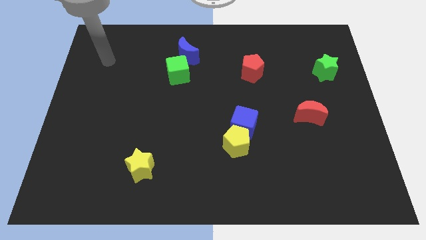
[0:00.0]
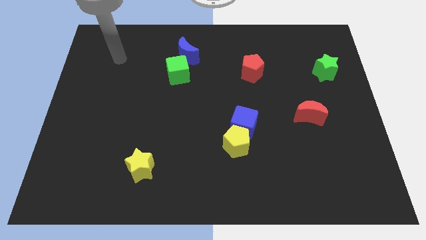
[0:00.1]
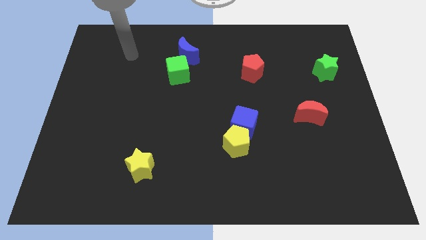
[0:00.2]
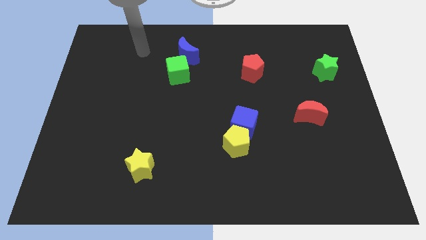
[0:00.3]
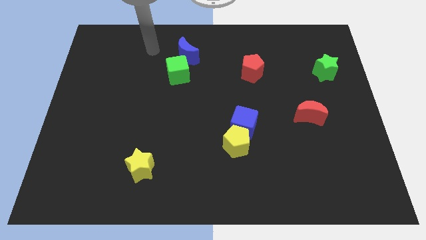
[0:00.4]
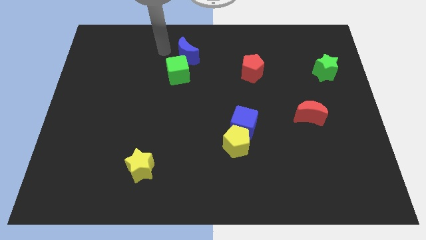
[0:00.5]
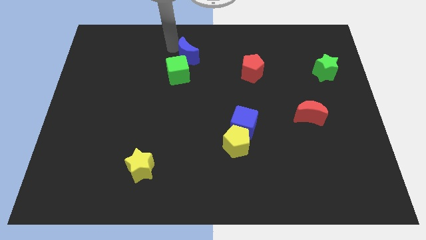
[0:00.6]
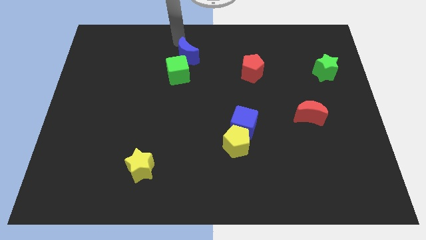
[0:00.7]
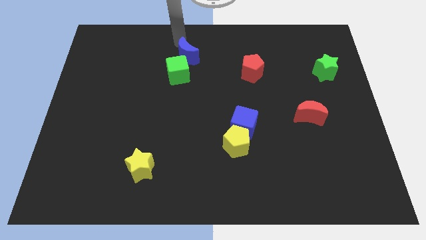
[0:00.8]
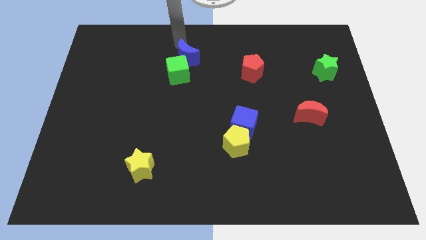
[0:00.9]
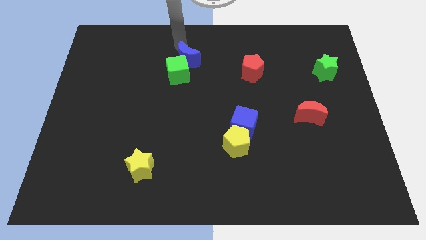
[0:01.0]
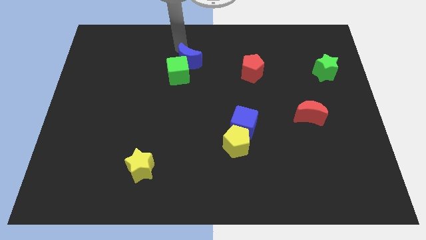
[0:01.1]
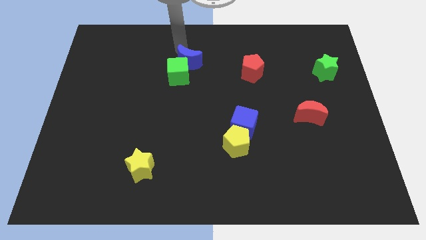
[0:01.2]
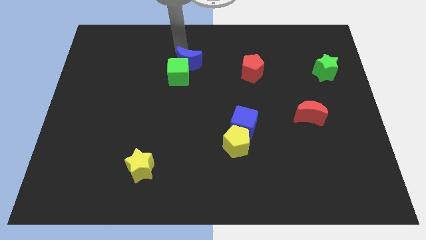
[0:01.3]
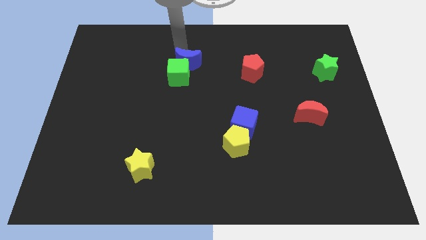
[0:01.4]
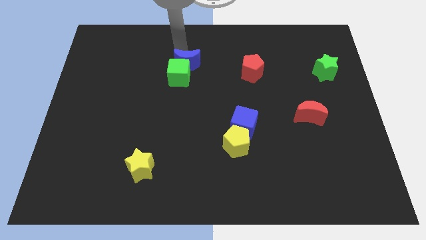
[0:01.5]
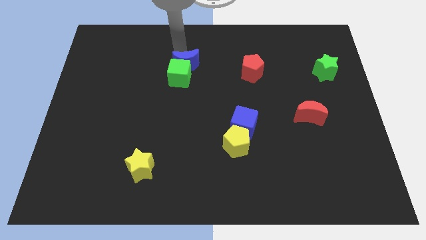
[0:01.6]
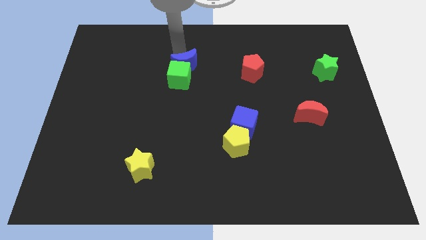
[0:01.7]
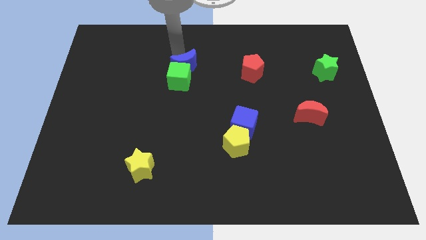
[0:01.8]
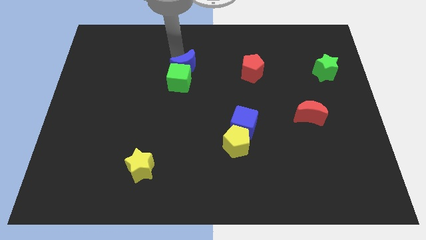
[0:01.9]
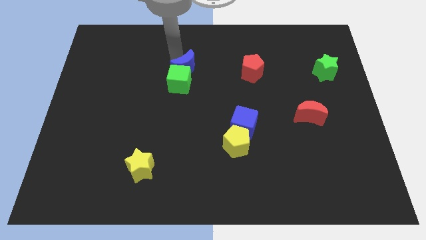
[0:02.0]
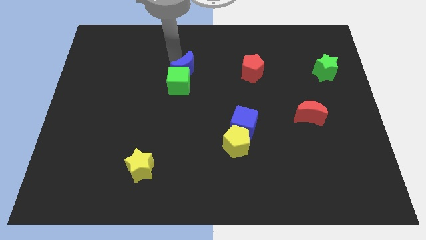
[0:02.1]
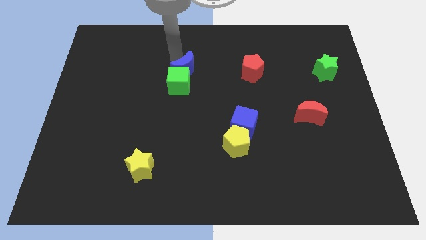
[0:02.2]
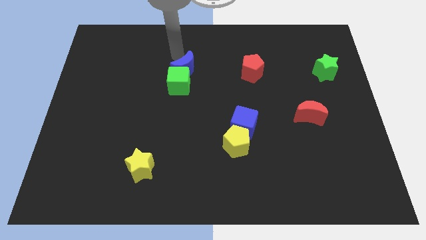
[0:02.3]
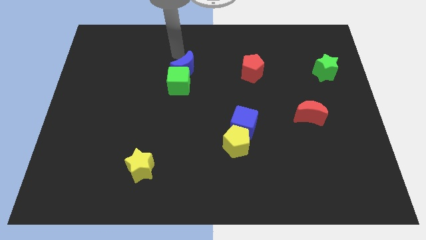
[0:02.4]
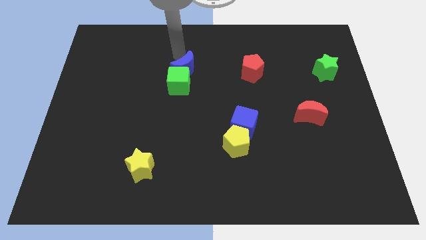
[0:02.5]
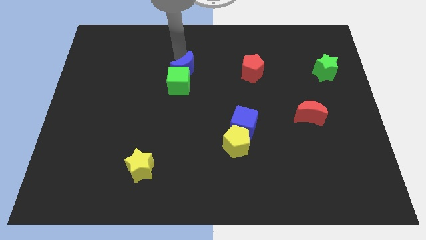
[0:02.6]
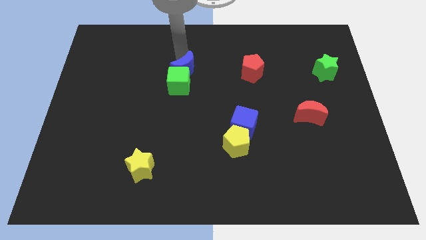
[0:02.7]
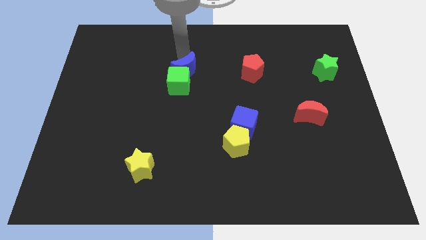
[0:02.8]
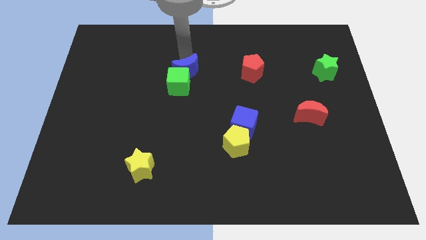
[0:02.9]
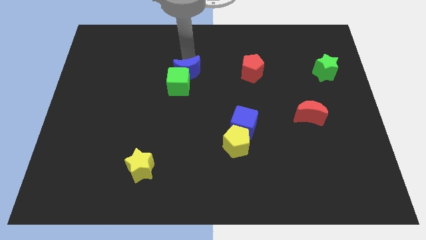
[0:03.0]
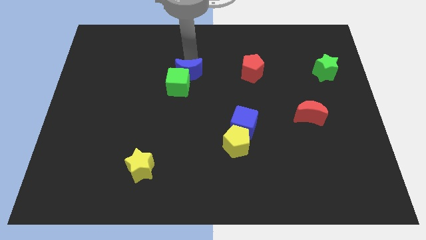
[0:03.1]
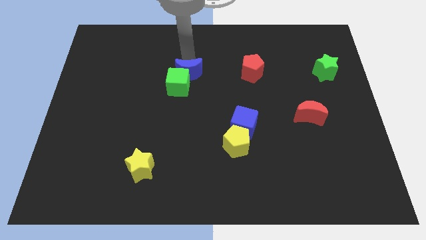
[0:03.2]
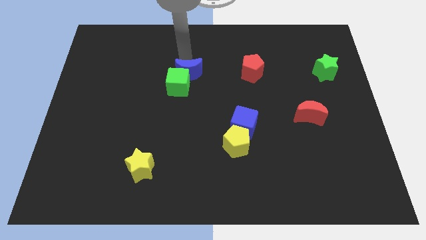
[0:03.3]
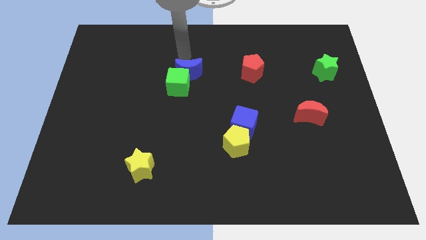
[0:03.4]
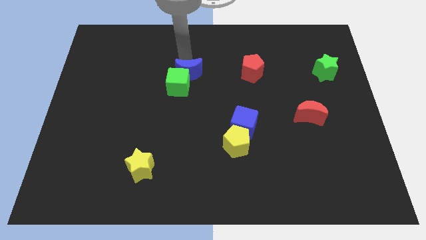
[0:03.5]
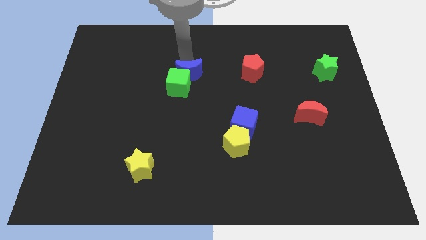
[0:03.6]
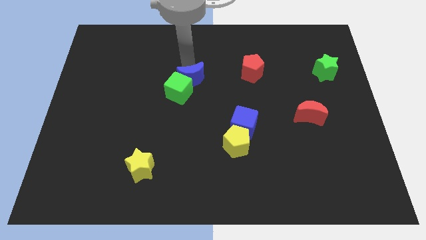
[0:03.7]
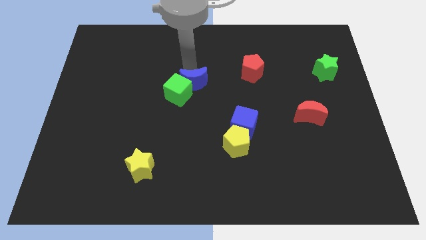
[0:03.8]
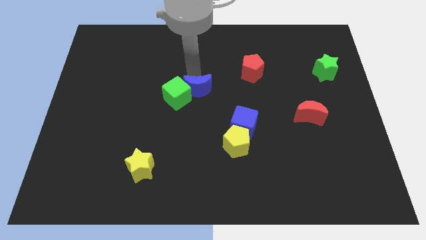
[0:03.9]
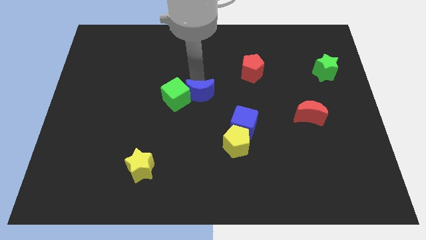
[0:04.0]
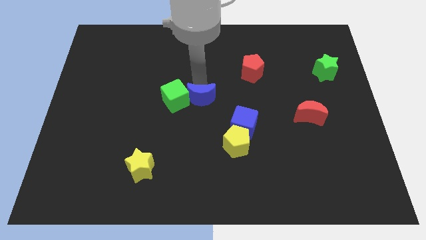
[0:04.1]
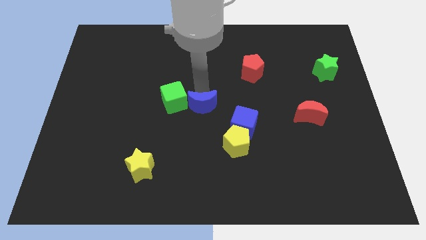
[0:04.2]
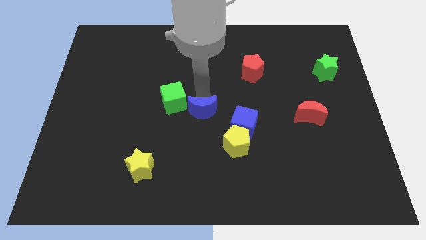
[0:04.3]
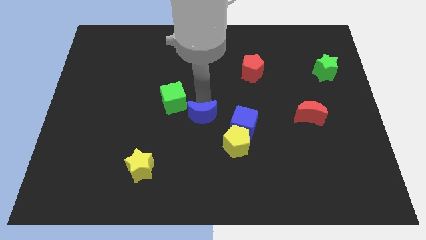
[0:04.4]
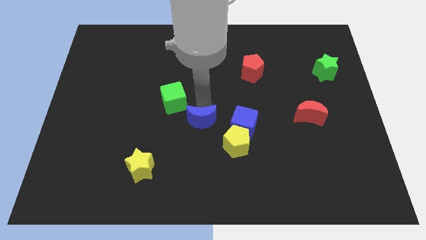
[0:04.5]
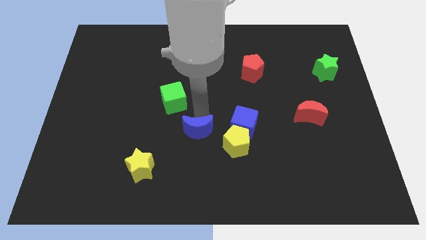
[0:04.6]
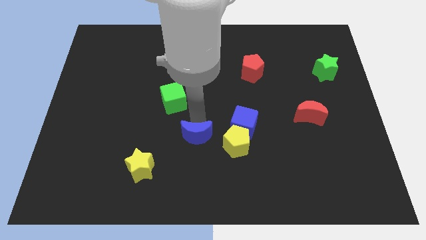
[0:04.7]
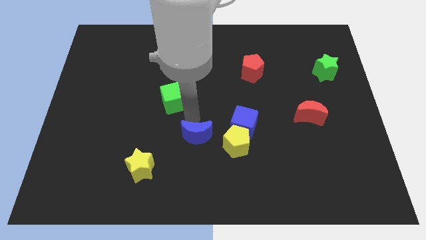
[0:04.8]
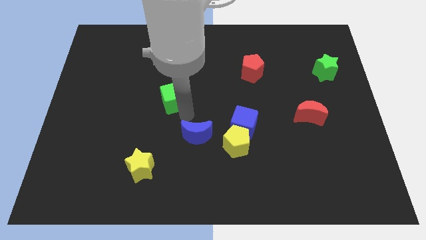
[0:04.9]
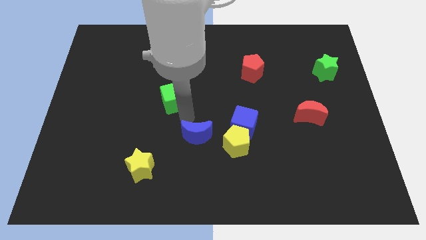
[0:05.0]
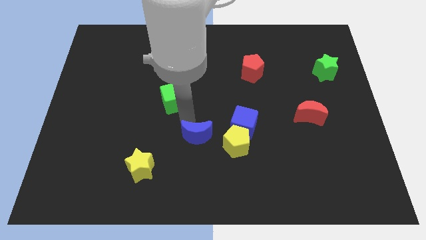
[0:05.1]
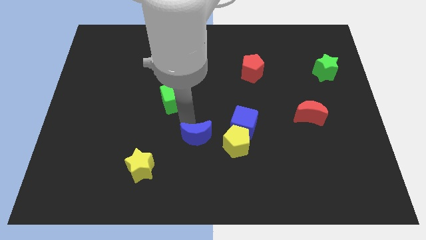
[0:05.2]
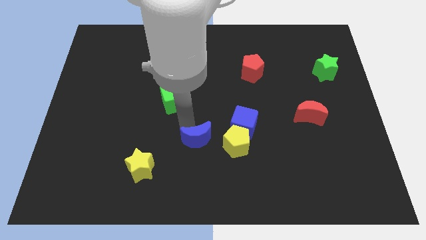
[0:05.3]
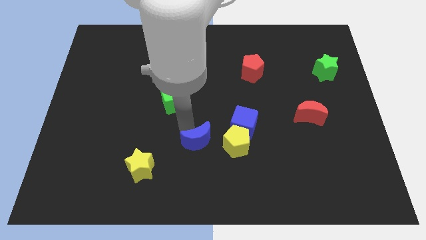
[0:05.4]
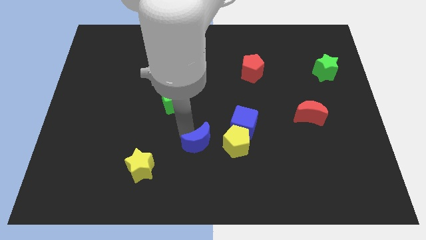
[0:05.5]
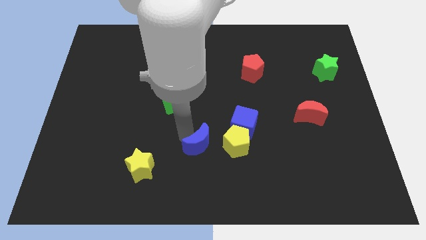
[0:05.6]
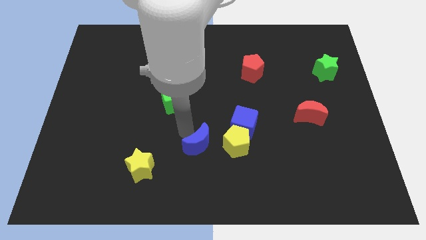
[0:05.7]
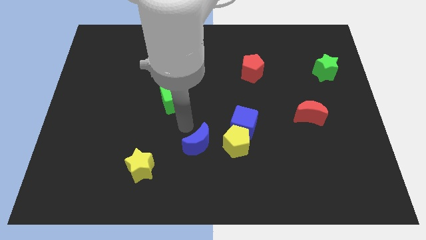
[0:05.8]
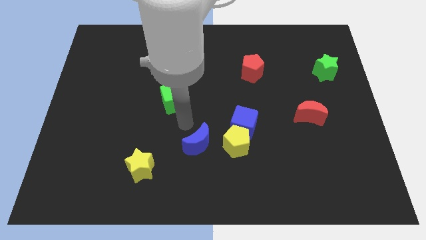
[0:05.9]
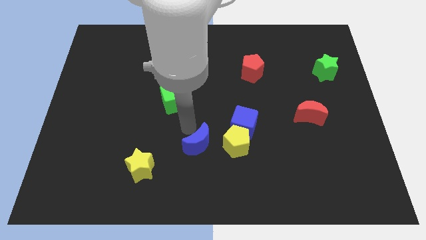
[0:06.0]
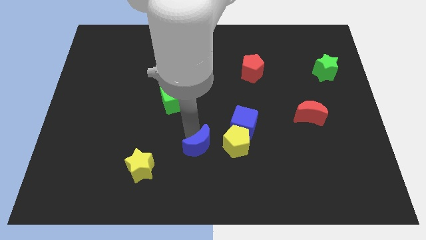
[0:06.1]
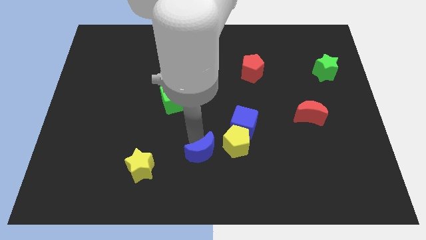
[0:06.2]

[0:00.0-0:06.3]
move the blue moon to the bottom left side of the yellow pentagon
